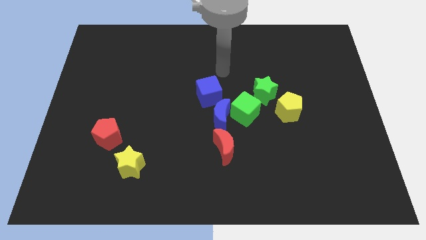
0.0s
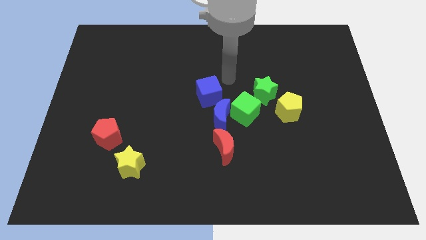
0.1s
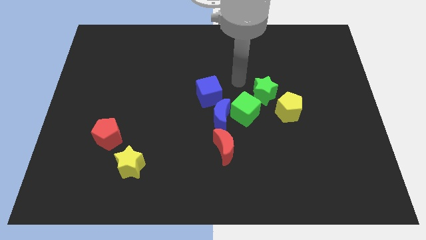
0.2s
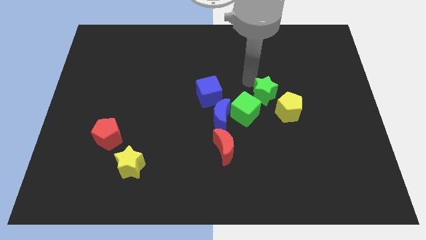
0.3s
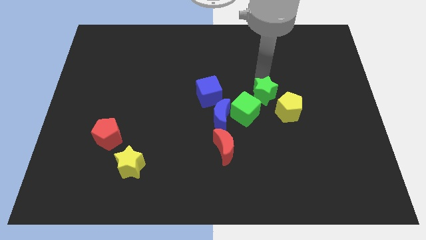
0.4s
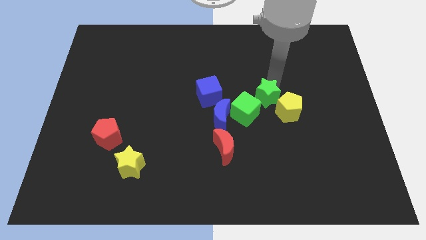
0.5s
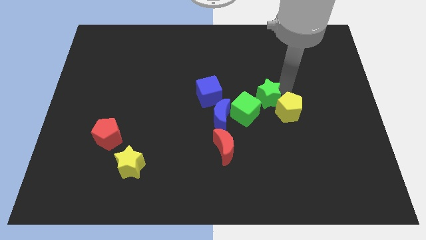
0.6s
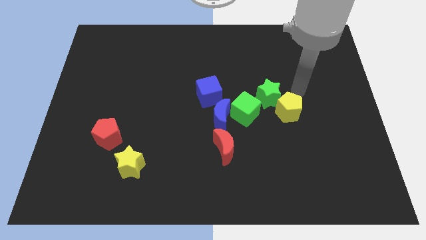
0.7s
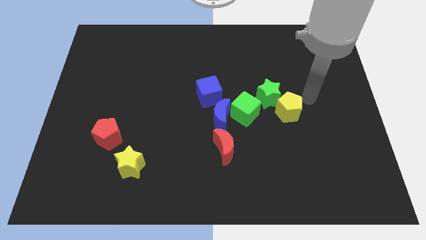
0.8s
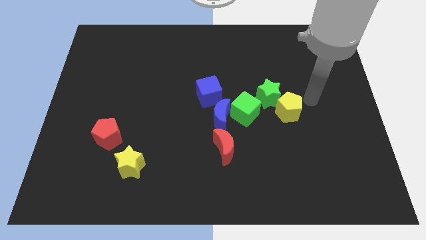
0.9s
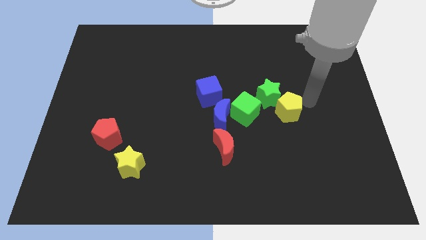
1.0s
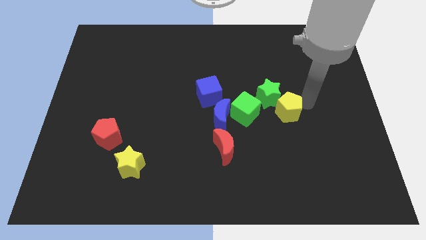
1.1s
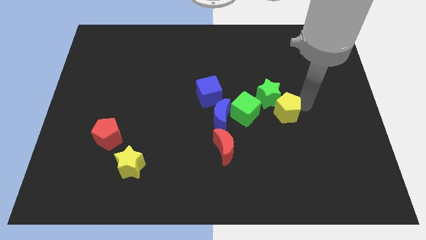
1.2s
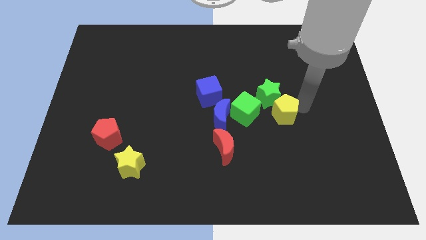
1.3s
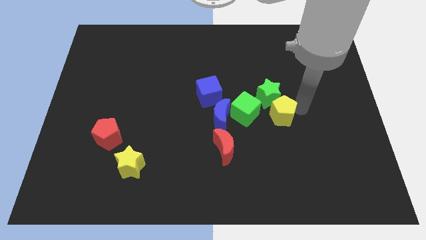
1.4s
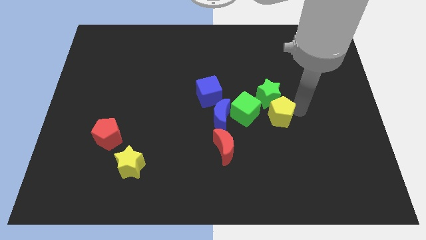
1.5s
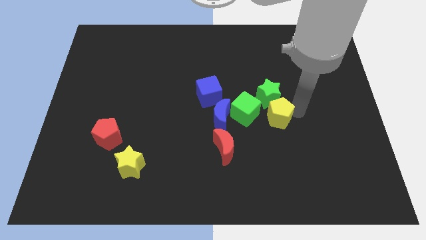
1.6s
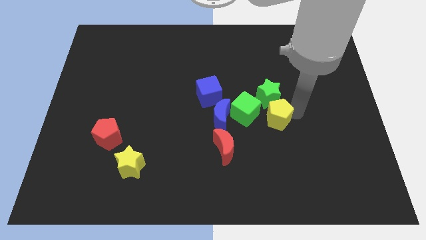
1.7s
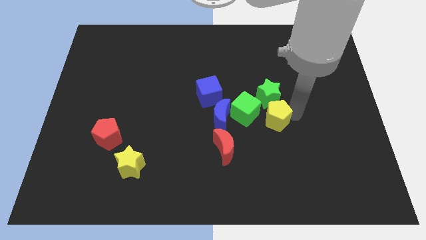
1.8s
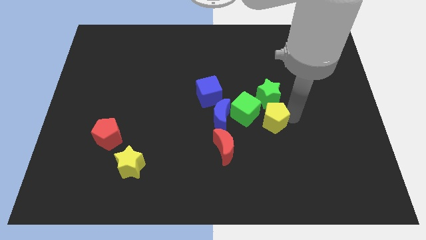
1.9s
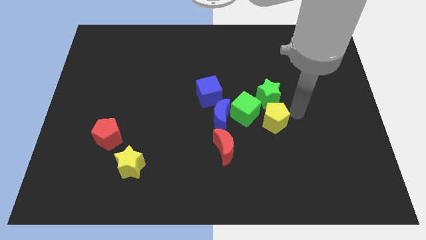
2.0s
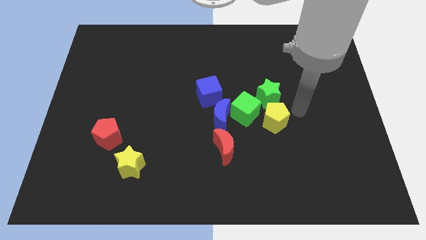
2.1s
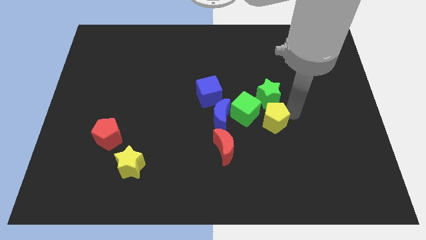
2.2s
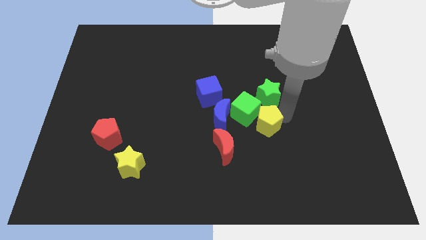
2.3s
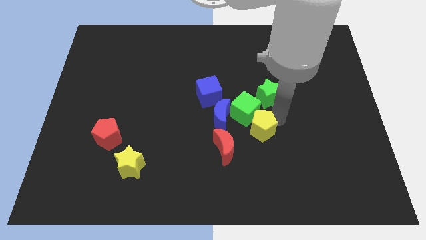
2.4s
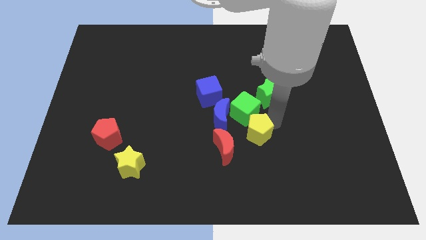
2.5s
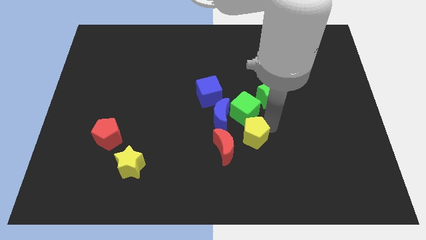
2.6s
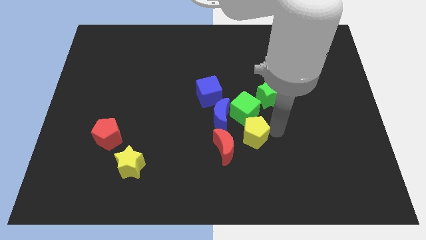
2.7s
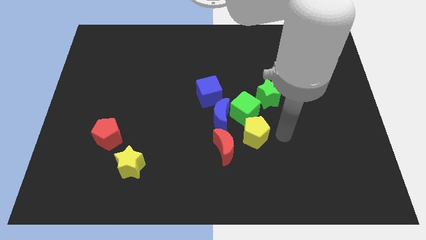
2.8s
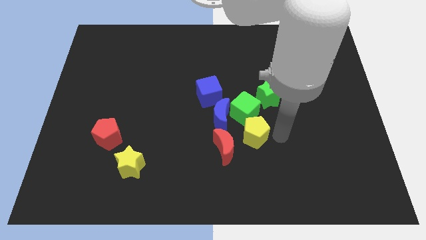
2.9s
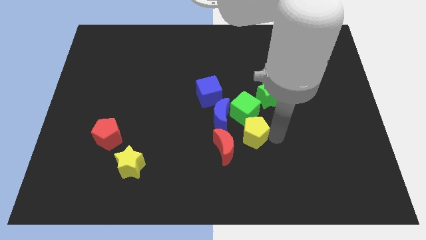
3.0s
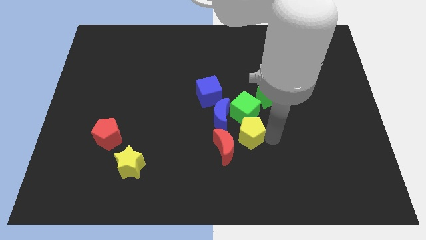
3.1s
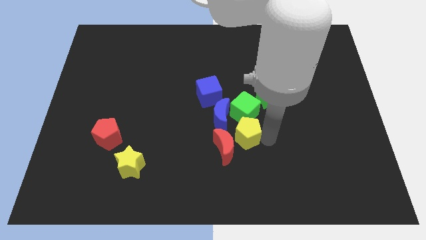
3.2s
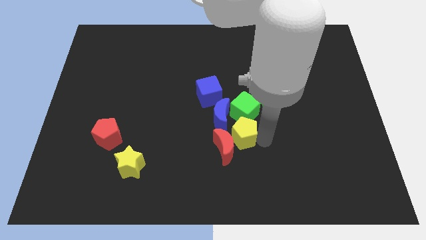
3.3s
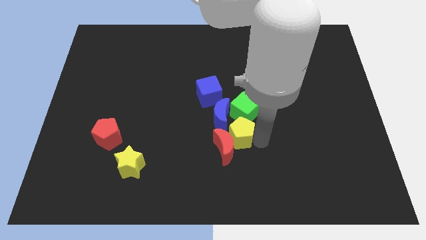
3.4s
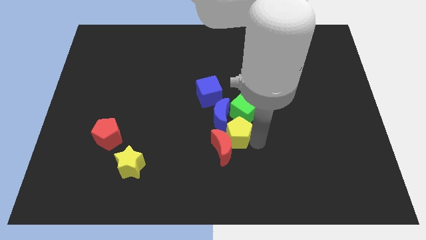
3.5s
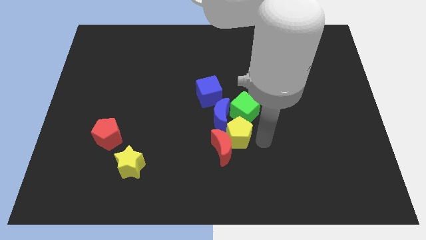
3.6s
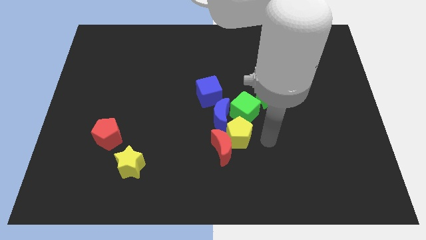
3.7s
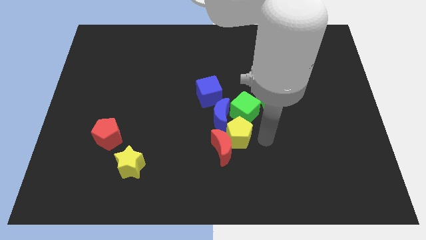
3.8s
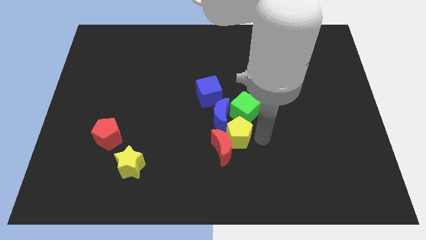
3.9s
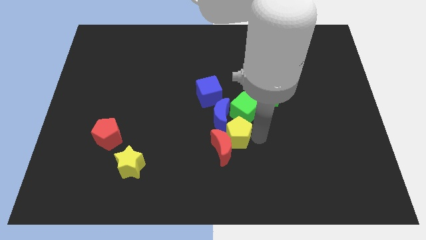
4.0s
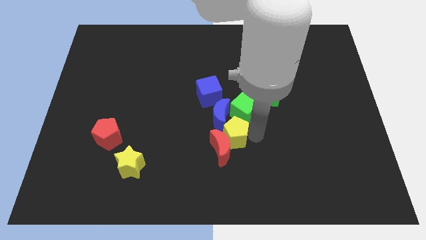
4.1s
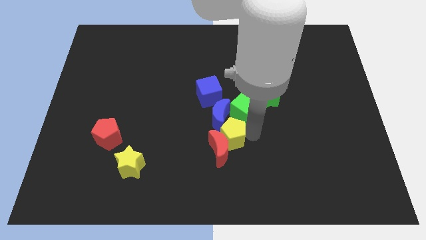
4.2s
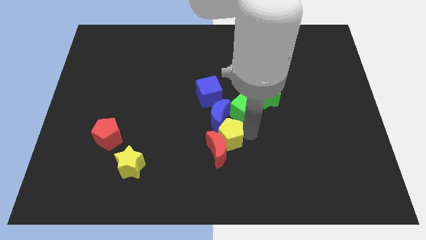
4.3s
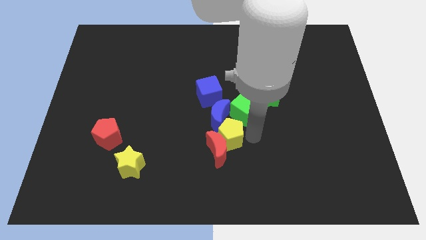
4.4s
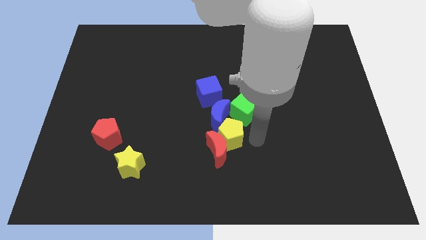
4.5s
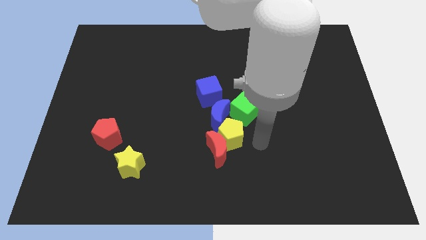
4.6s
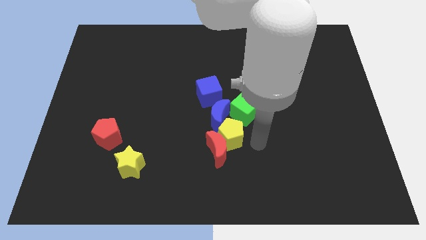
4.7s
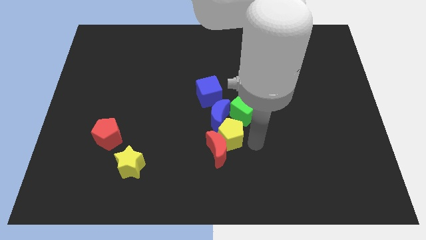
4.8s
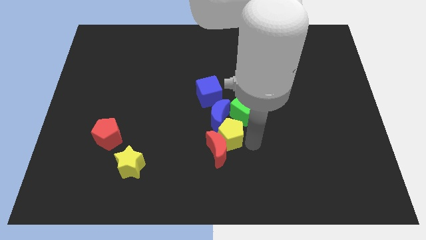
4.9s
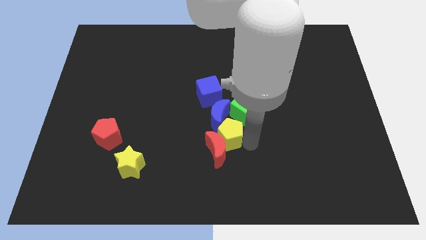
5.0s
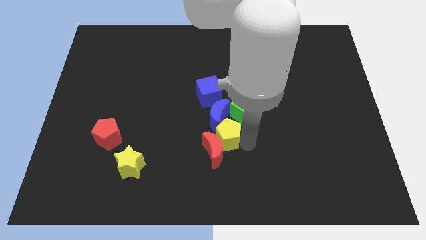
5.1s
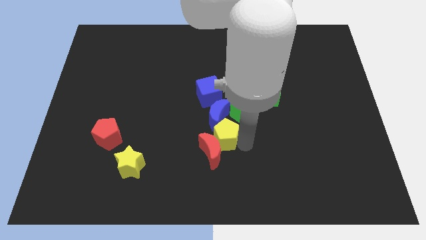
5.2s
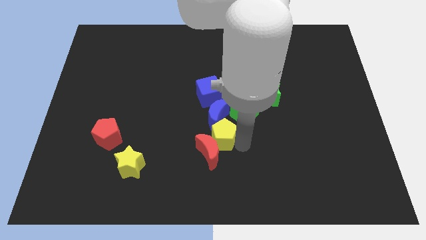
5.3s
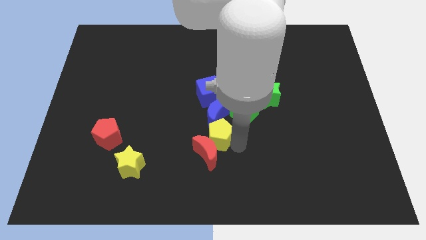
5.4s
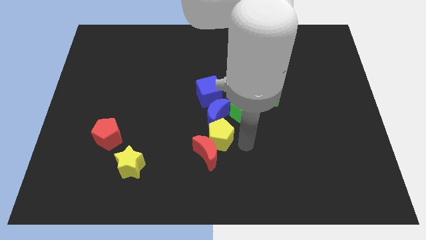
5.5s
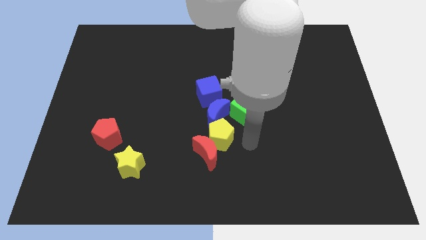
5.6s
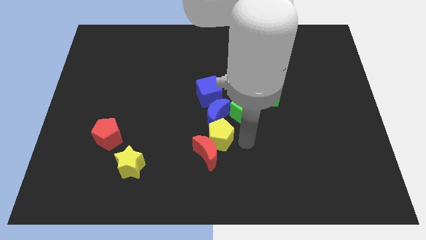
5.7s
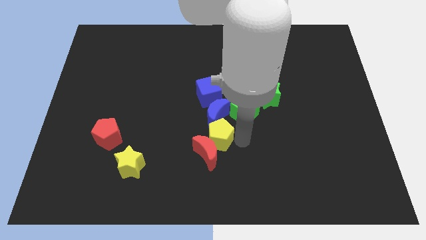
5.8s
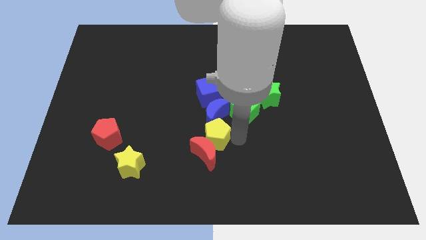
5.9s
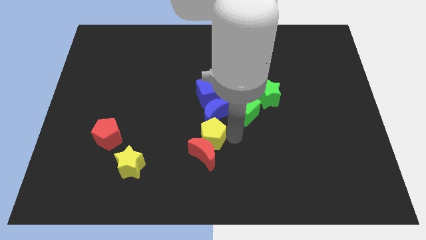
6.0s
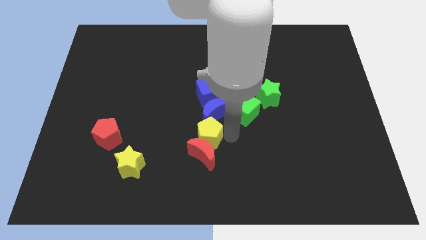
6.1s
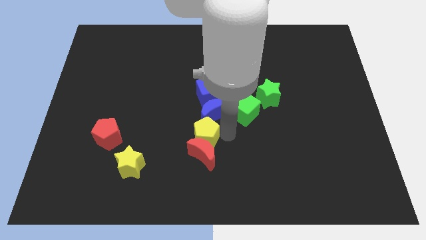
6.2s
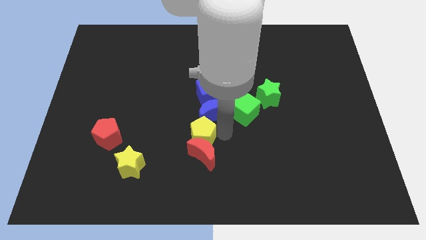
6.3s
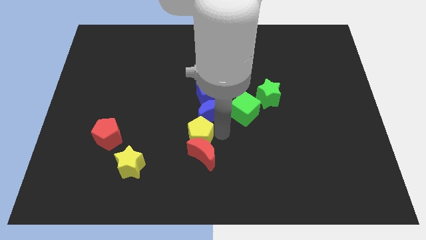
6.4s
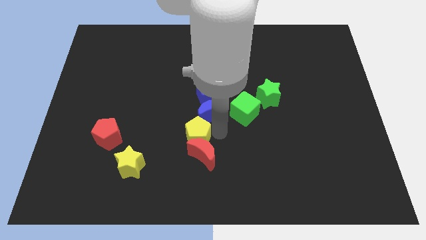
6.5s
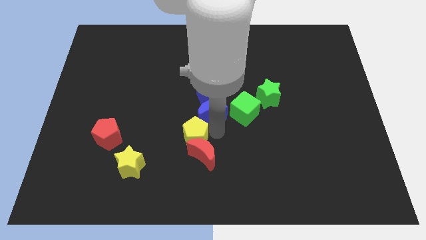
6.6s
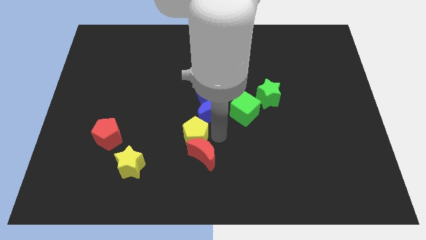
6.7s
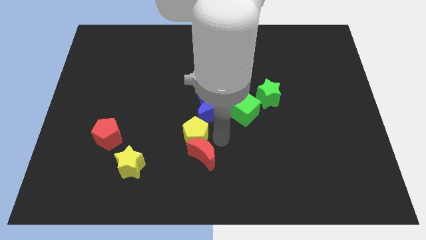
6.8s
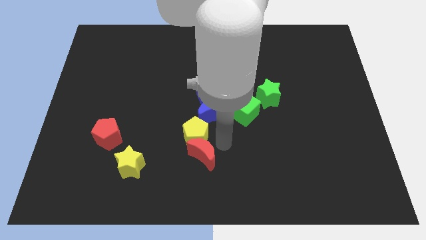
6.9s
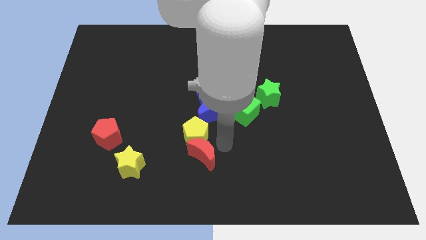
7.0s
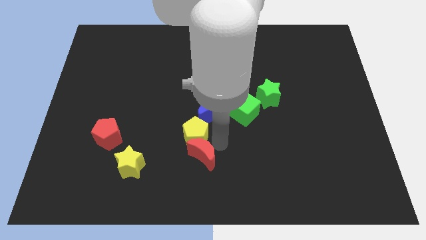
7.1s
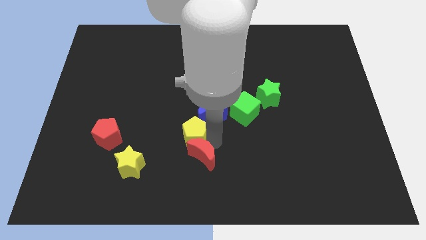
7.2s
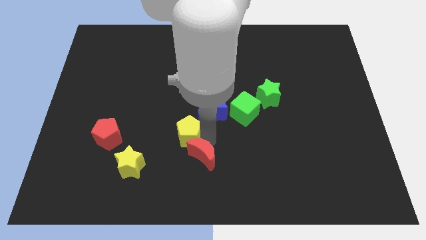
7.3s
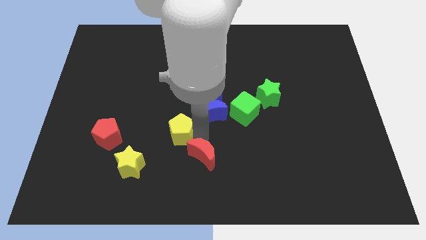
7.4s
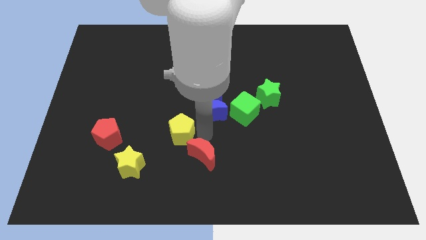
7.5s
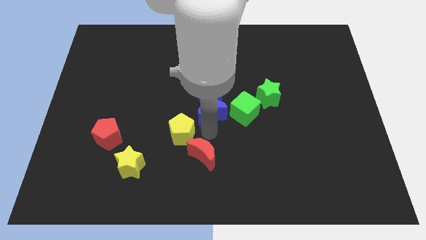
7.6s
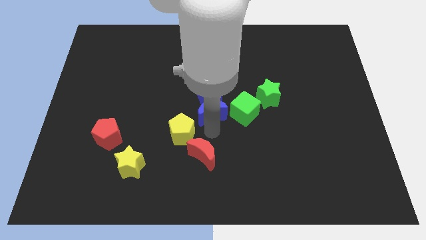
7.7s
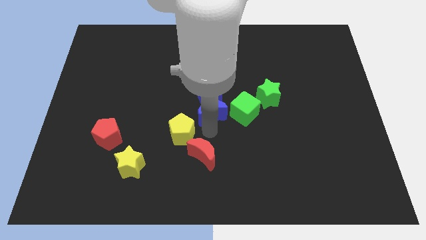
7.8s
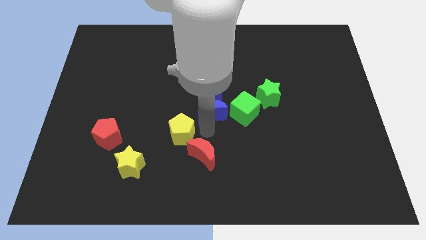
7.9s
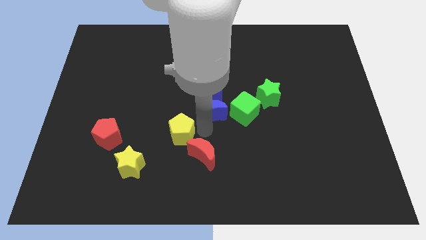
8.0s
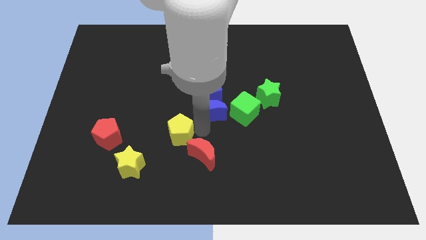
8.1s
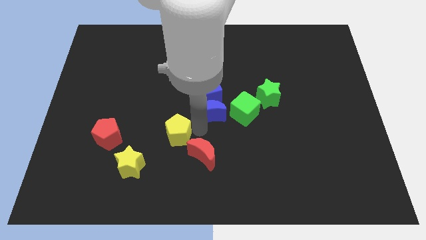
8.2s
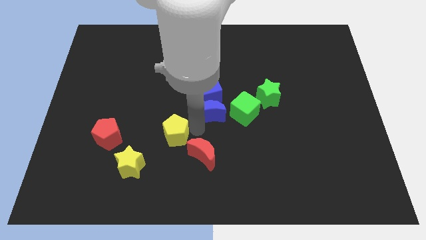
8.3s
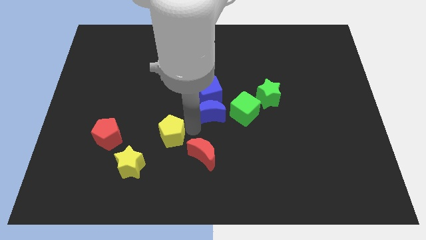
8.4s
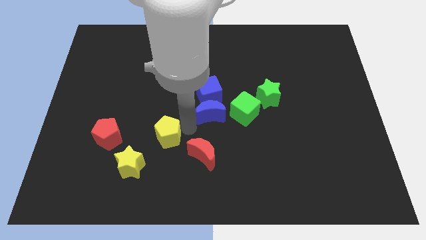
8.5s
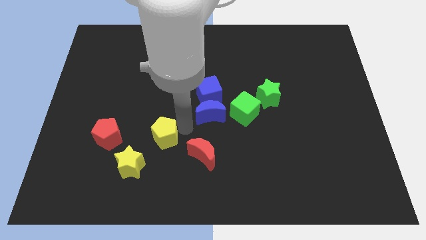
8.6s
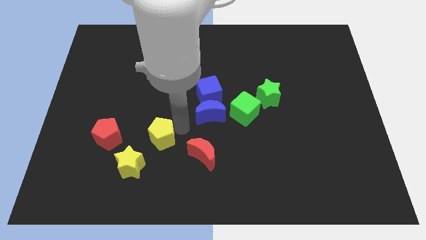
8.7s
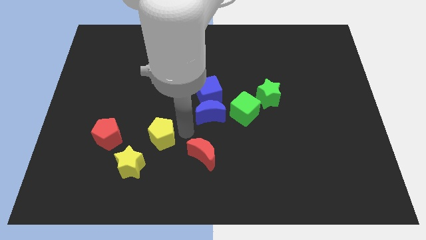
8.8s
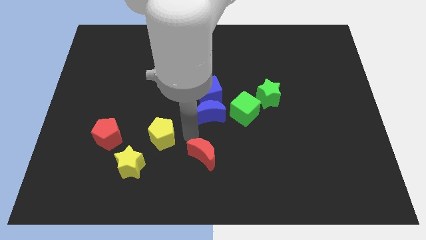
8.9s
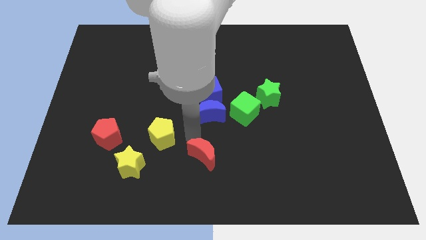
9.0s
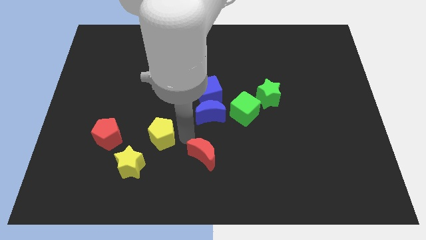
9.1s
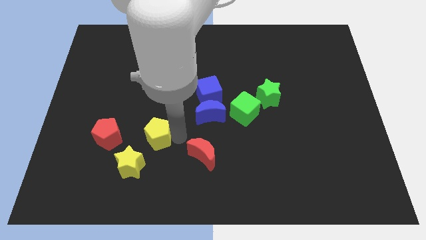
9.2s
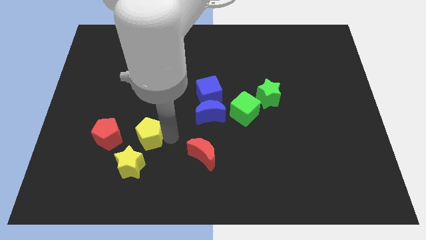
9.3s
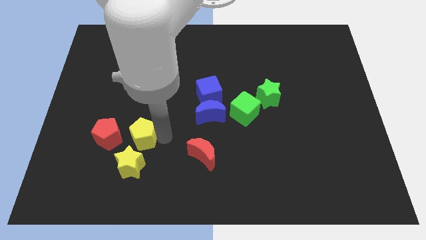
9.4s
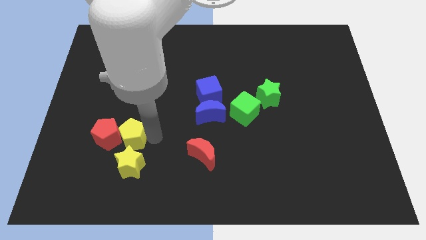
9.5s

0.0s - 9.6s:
move the yellow pentagon next to the red pentagon
